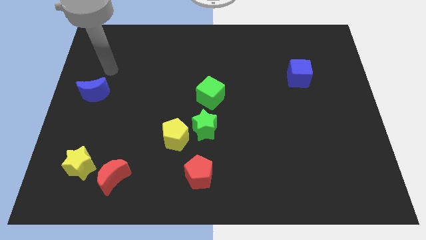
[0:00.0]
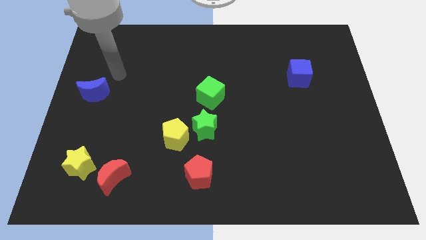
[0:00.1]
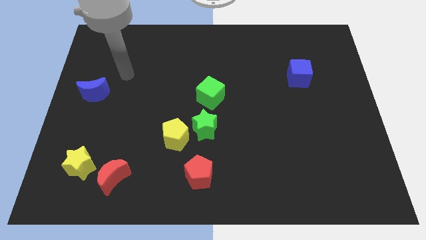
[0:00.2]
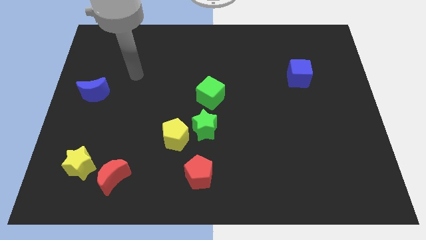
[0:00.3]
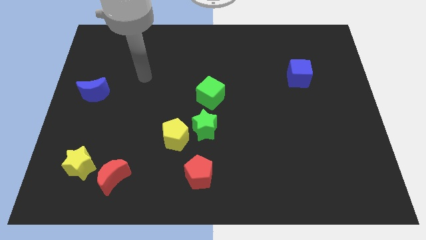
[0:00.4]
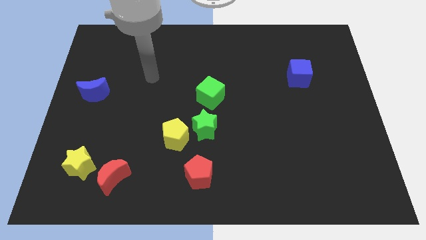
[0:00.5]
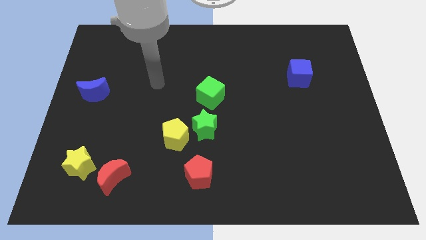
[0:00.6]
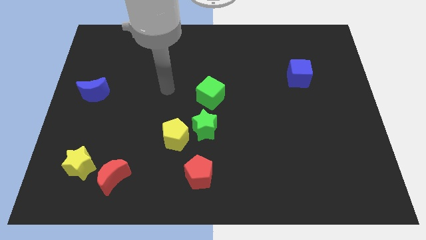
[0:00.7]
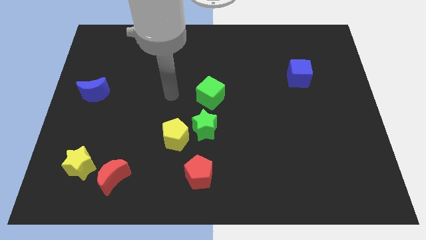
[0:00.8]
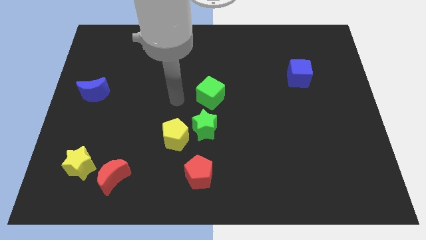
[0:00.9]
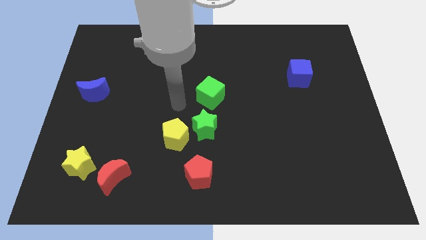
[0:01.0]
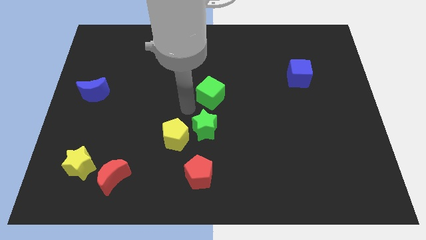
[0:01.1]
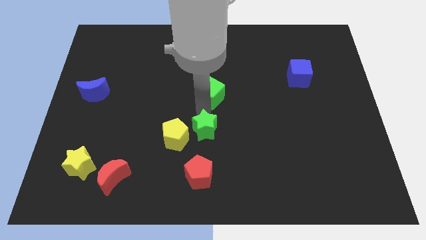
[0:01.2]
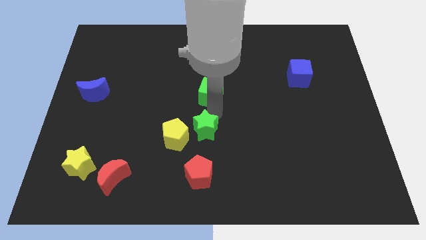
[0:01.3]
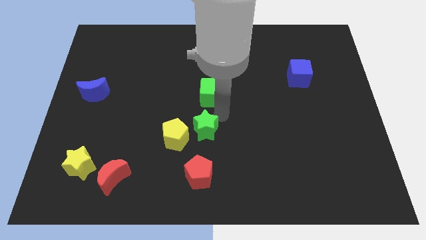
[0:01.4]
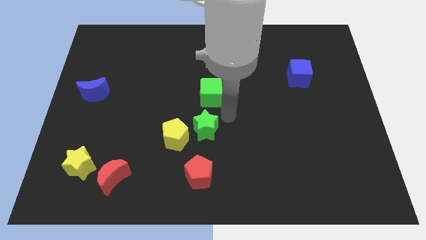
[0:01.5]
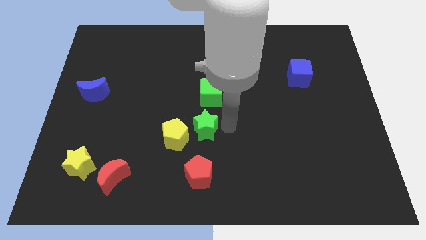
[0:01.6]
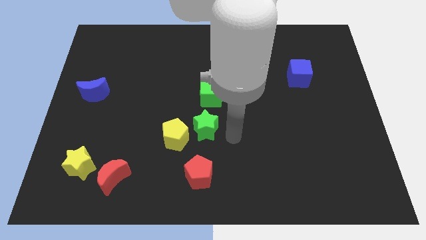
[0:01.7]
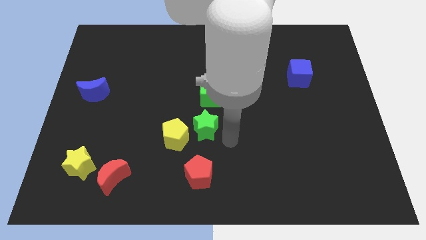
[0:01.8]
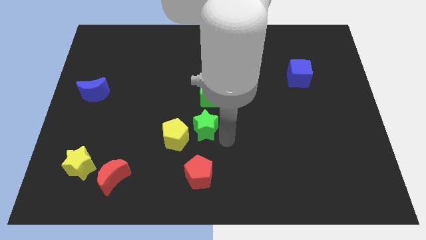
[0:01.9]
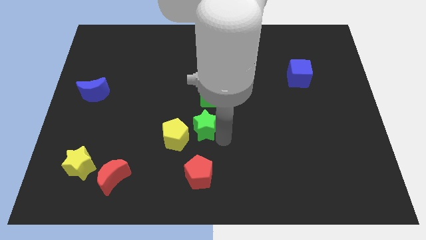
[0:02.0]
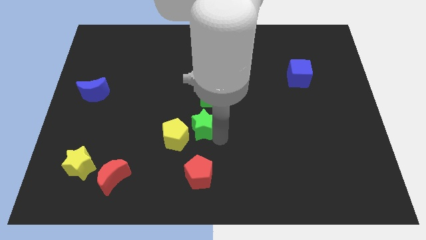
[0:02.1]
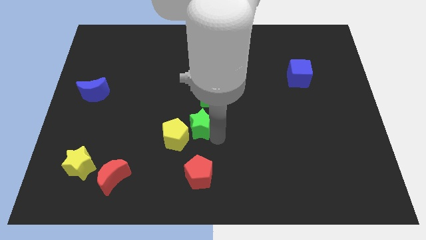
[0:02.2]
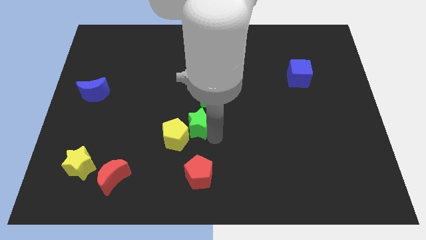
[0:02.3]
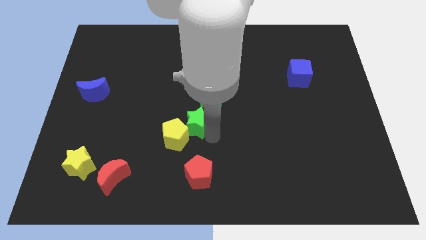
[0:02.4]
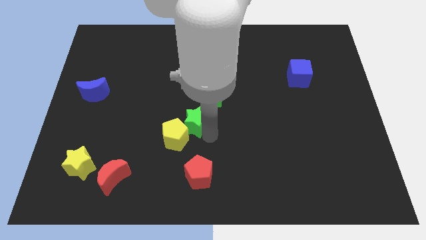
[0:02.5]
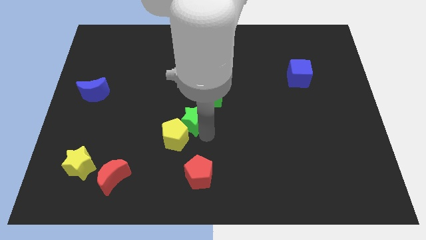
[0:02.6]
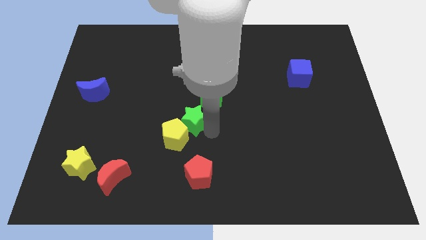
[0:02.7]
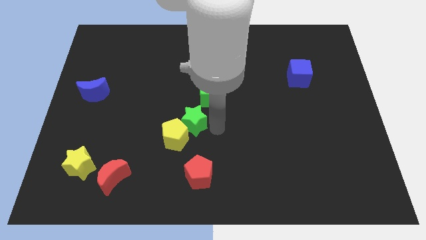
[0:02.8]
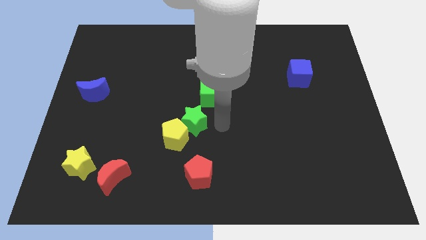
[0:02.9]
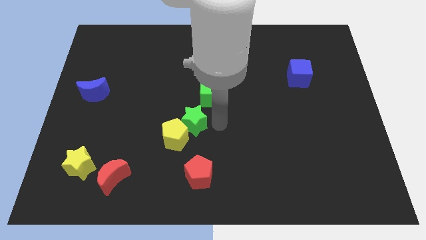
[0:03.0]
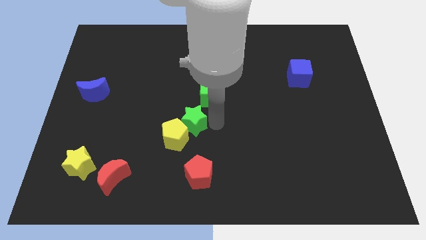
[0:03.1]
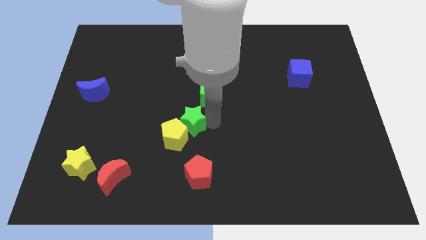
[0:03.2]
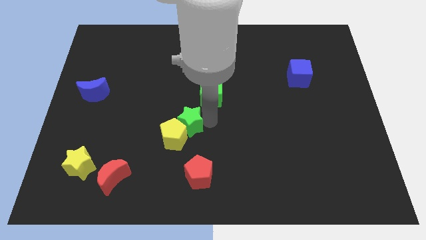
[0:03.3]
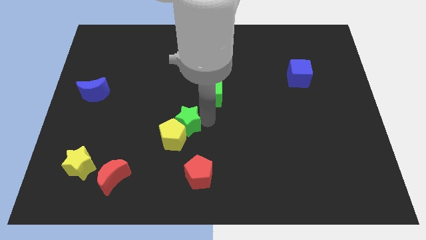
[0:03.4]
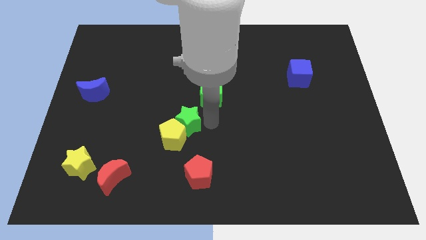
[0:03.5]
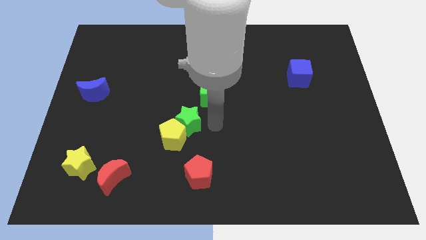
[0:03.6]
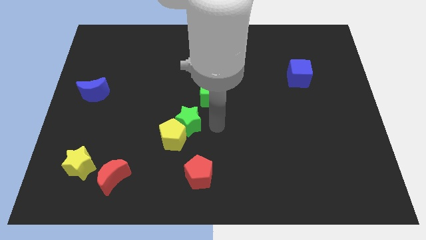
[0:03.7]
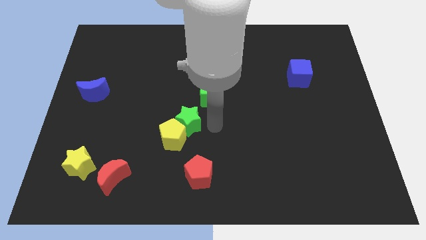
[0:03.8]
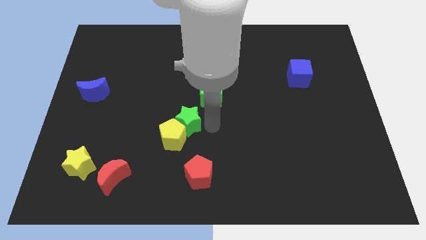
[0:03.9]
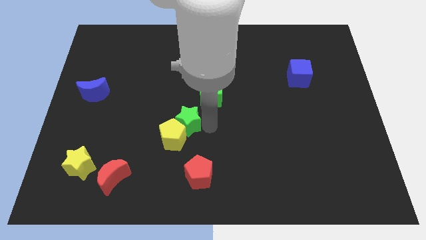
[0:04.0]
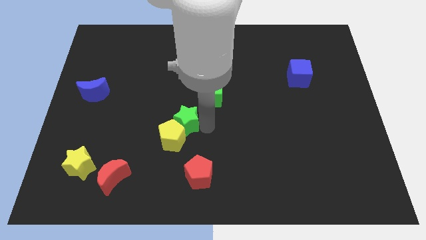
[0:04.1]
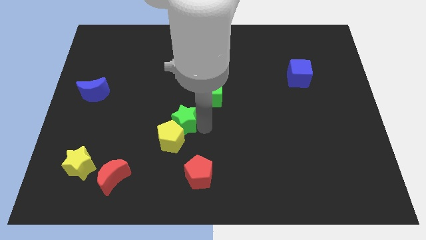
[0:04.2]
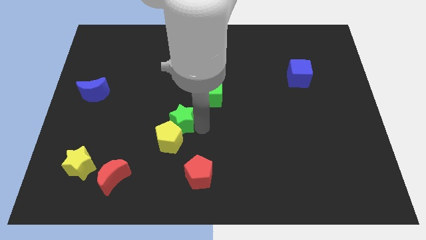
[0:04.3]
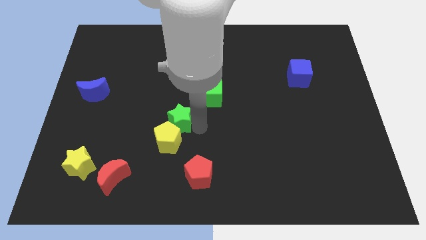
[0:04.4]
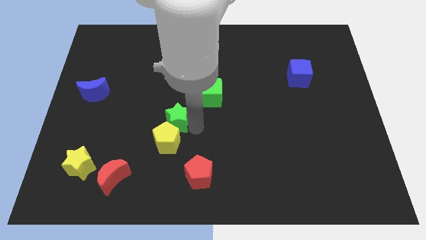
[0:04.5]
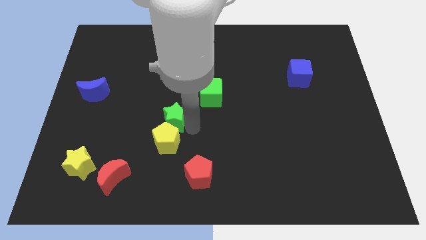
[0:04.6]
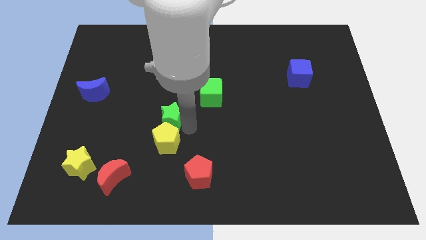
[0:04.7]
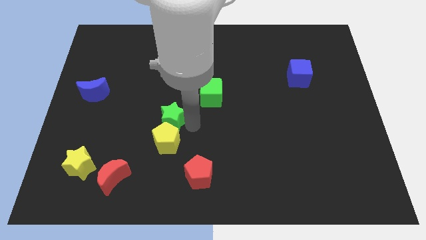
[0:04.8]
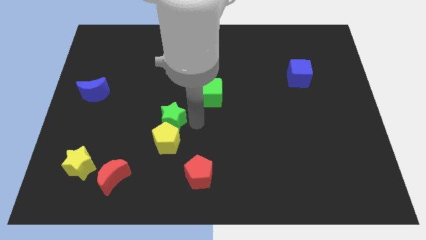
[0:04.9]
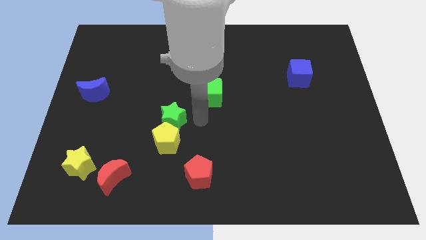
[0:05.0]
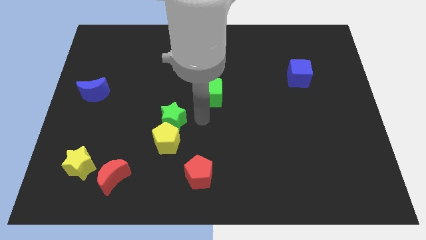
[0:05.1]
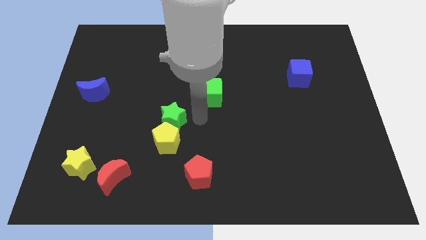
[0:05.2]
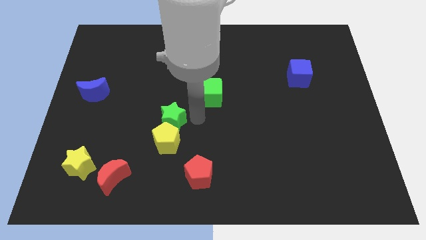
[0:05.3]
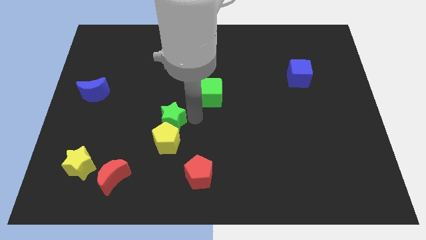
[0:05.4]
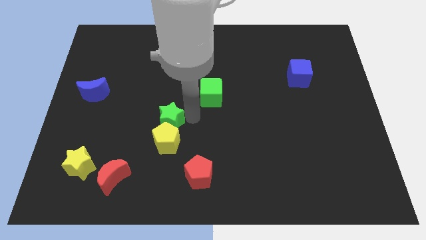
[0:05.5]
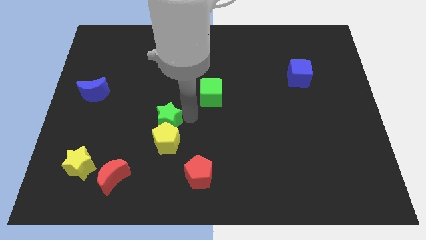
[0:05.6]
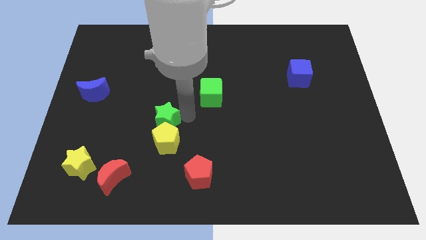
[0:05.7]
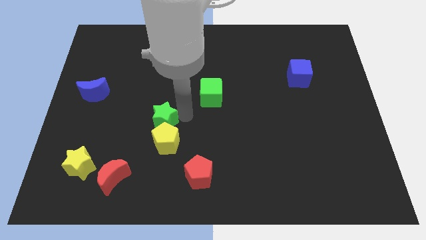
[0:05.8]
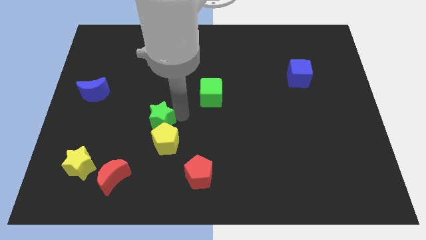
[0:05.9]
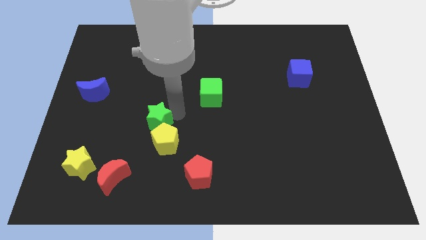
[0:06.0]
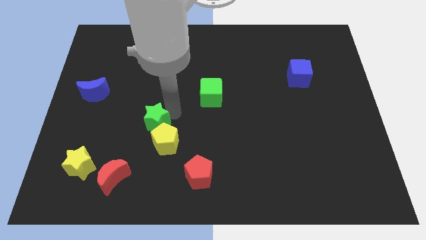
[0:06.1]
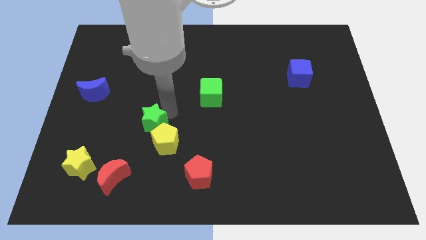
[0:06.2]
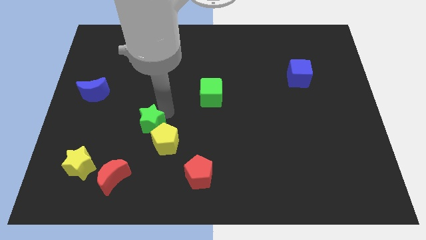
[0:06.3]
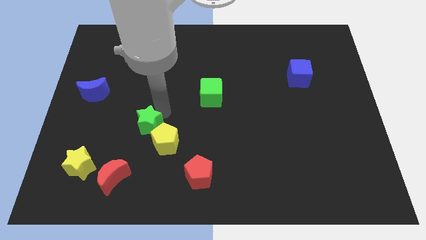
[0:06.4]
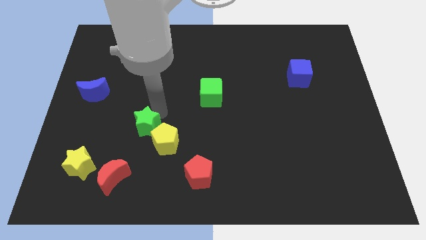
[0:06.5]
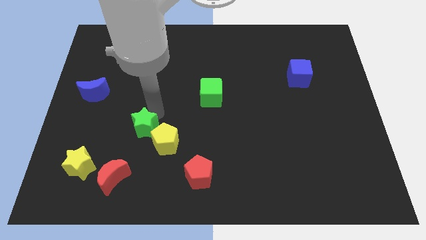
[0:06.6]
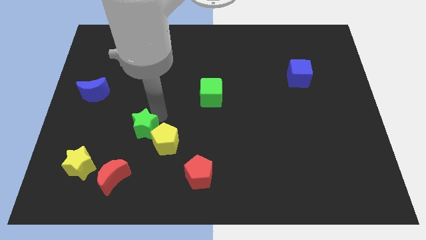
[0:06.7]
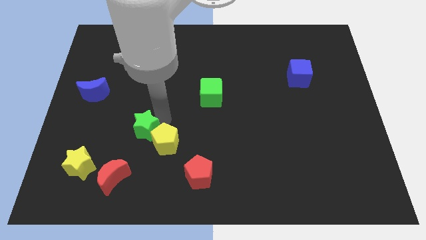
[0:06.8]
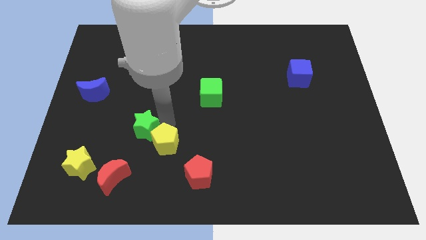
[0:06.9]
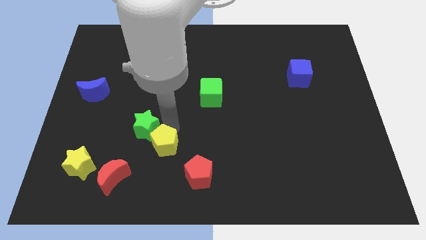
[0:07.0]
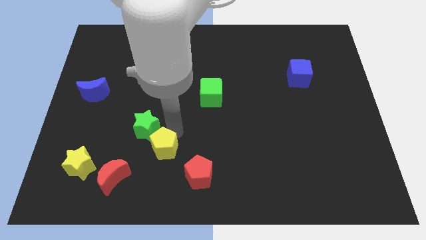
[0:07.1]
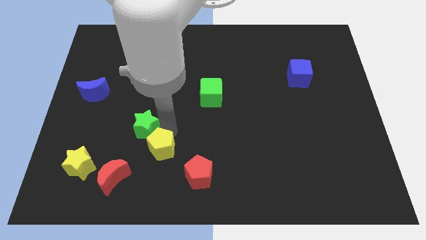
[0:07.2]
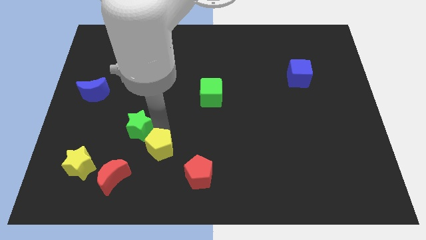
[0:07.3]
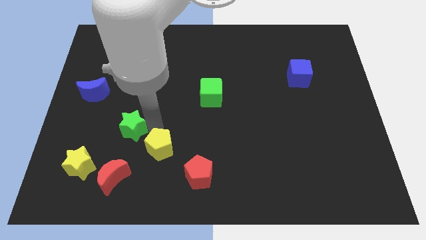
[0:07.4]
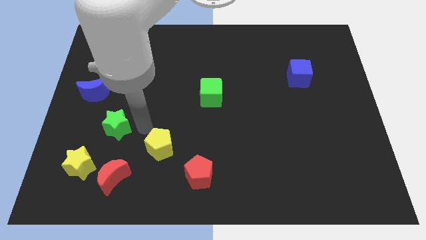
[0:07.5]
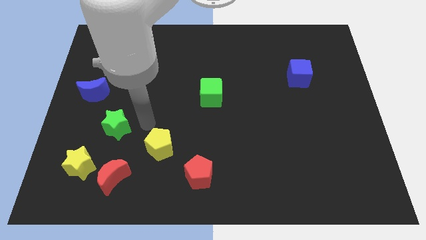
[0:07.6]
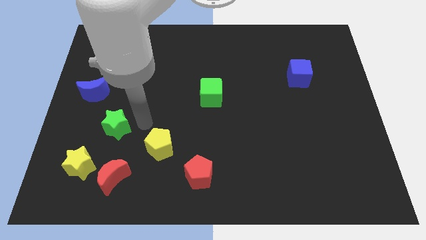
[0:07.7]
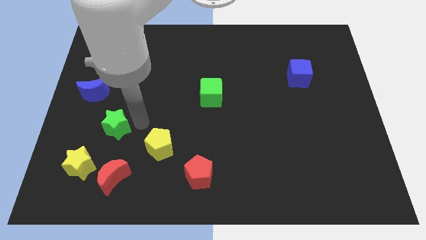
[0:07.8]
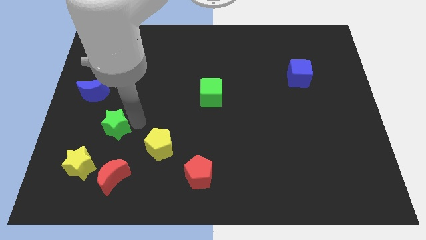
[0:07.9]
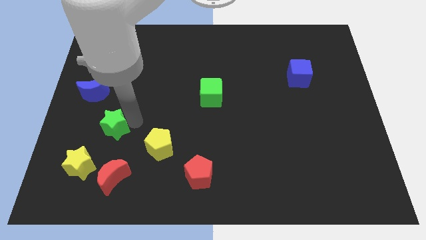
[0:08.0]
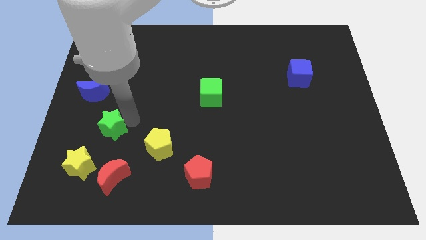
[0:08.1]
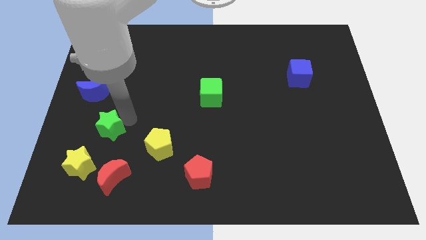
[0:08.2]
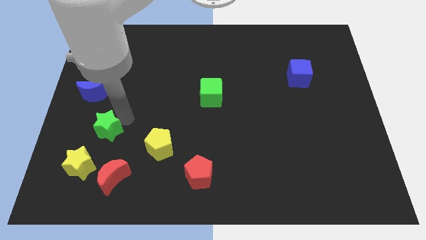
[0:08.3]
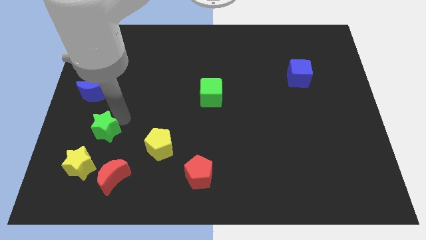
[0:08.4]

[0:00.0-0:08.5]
slide the green star to the bottom of the blue moon
